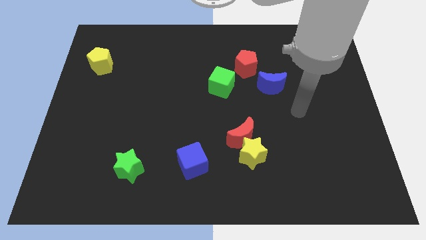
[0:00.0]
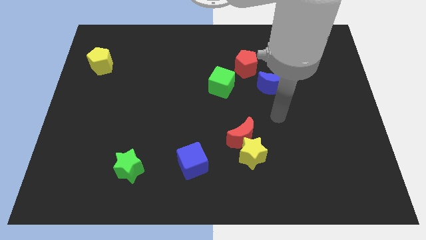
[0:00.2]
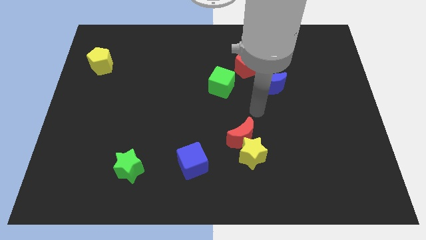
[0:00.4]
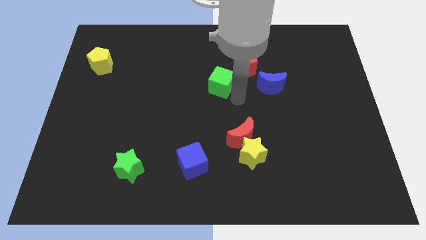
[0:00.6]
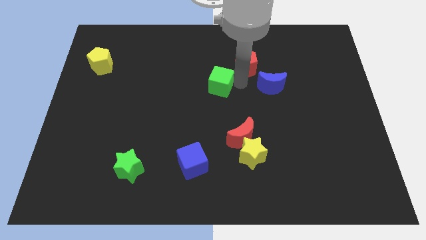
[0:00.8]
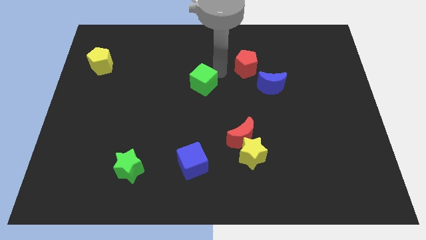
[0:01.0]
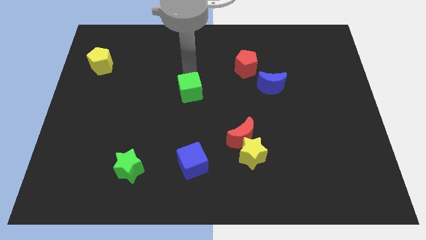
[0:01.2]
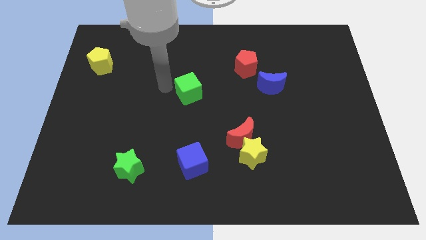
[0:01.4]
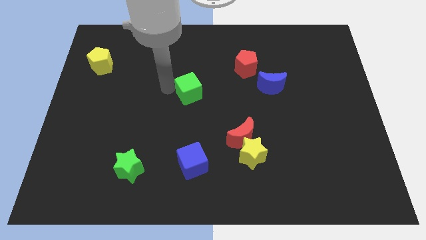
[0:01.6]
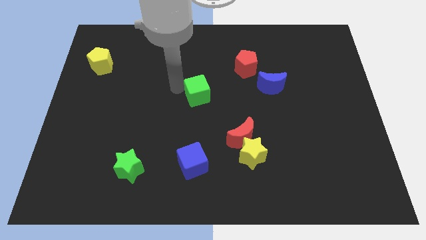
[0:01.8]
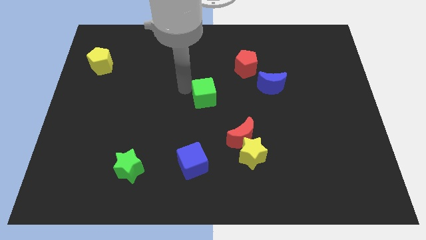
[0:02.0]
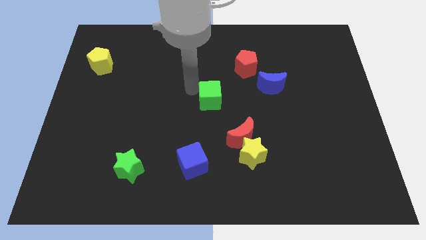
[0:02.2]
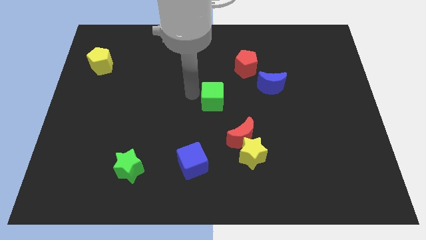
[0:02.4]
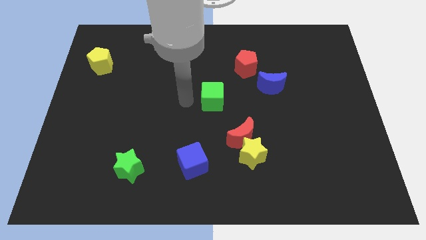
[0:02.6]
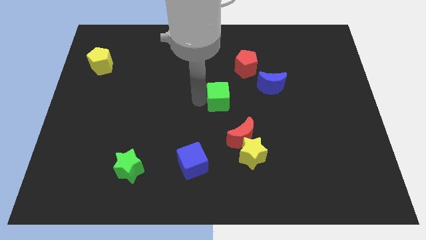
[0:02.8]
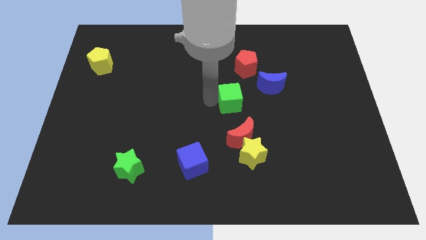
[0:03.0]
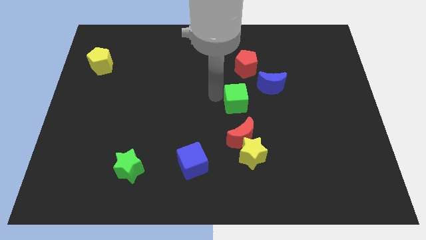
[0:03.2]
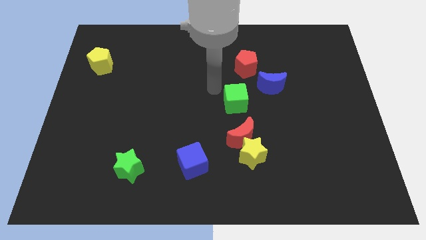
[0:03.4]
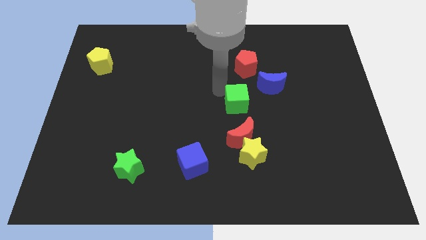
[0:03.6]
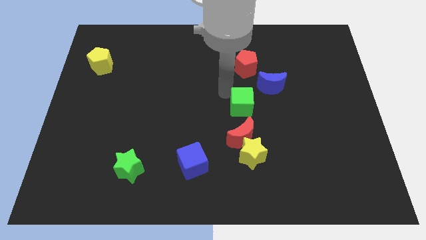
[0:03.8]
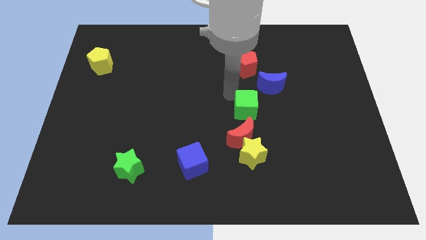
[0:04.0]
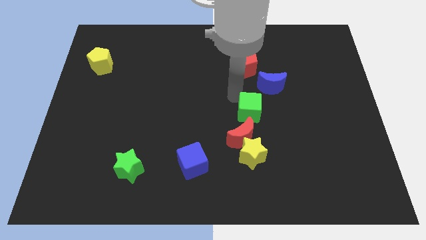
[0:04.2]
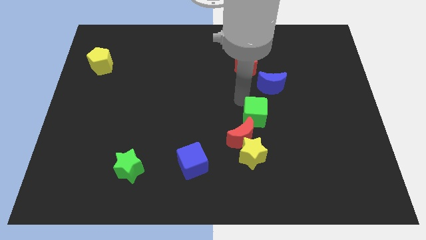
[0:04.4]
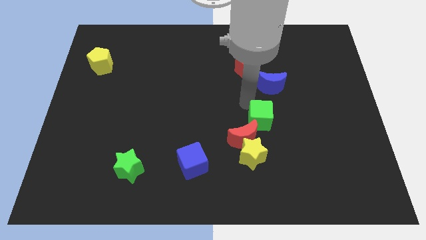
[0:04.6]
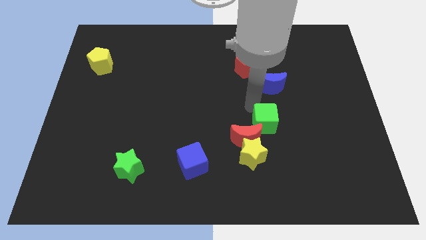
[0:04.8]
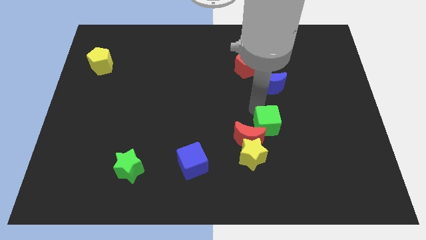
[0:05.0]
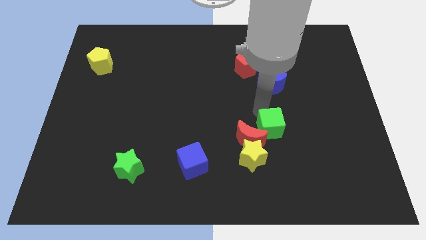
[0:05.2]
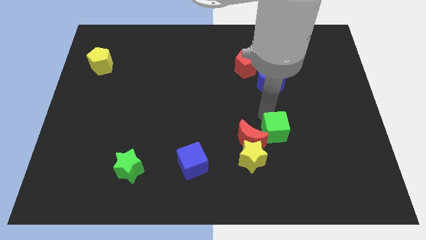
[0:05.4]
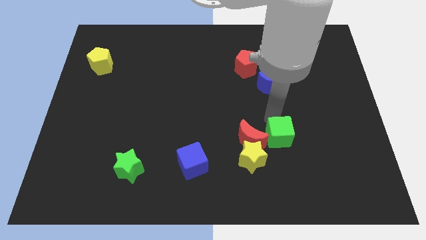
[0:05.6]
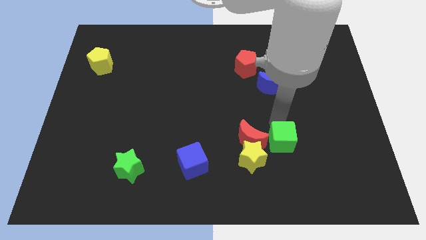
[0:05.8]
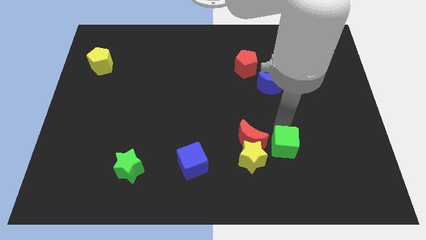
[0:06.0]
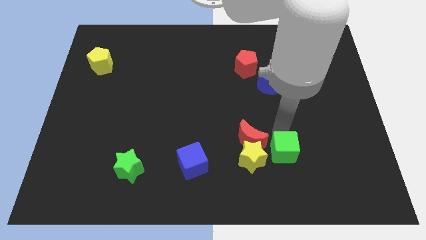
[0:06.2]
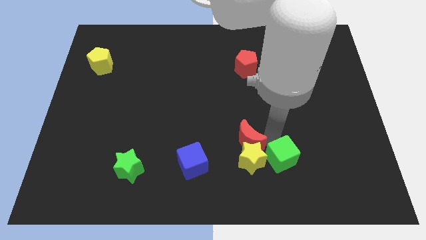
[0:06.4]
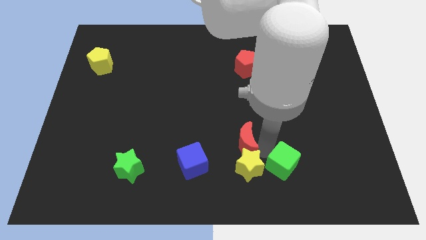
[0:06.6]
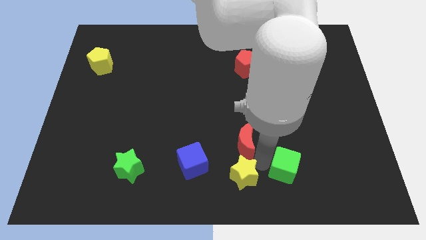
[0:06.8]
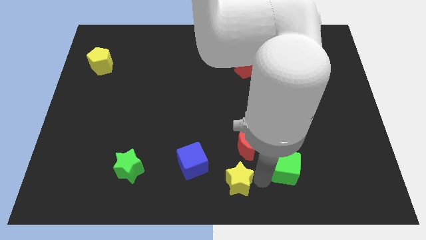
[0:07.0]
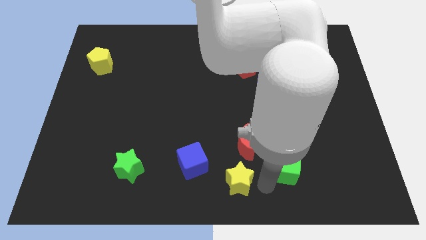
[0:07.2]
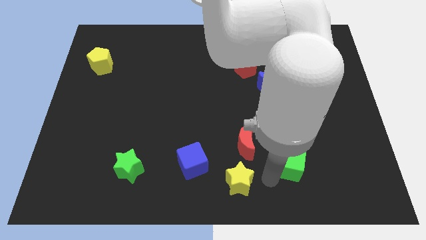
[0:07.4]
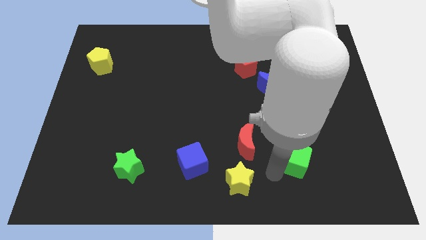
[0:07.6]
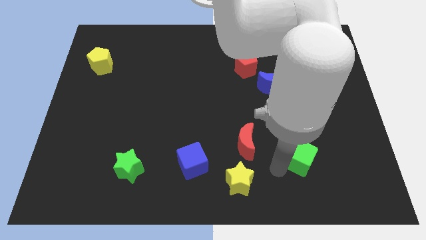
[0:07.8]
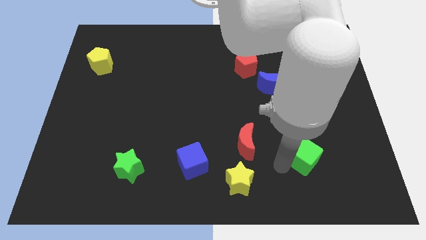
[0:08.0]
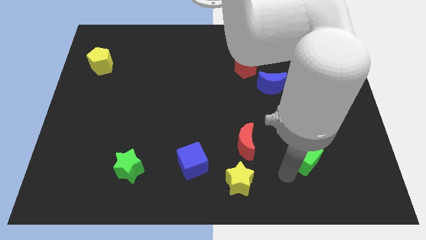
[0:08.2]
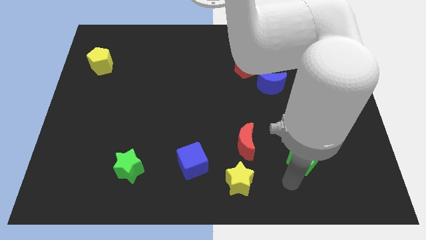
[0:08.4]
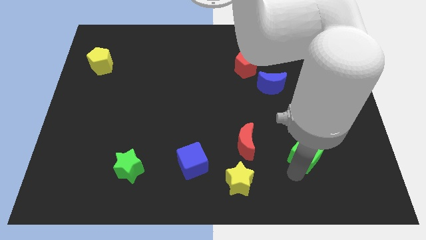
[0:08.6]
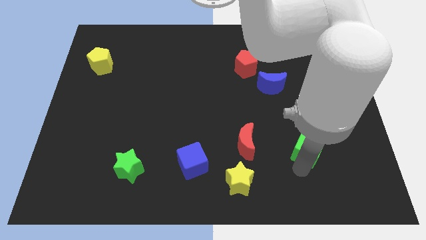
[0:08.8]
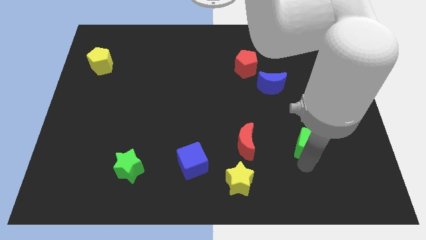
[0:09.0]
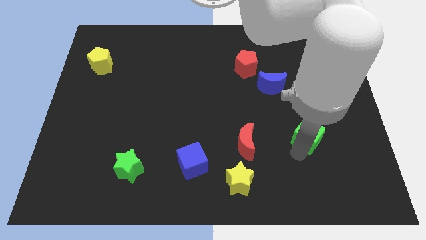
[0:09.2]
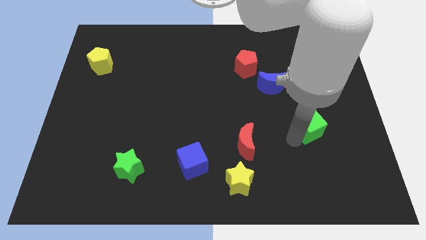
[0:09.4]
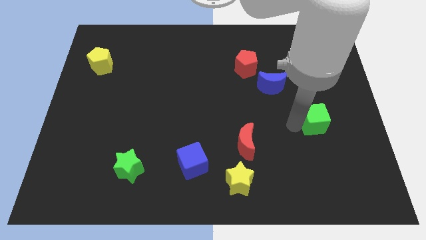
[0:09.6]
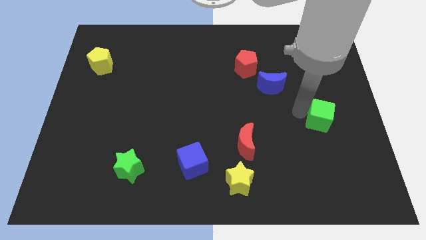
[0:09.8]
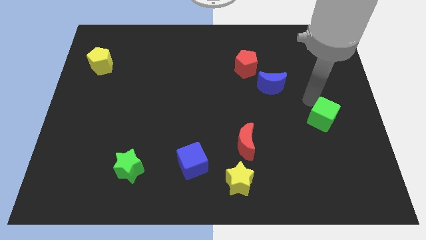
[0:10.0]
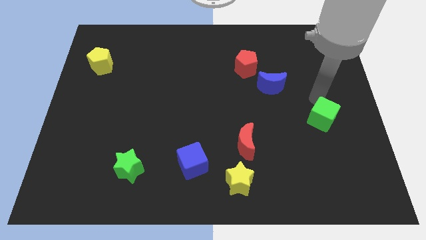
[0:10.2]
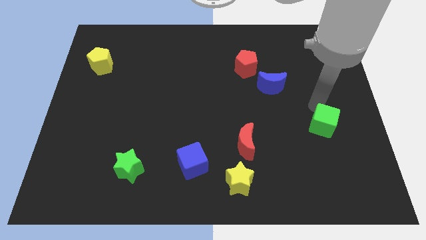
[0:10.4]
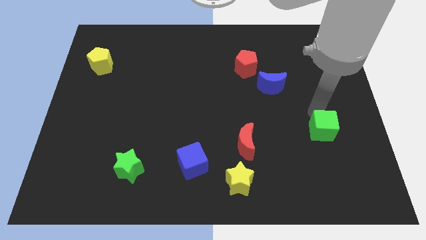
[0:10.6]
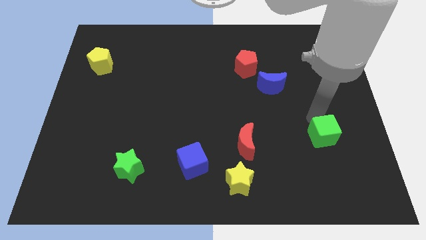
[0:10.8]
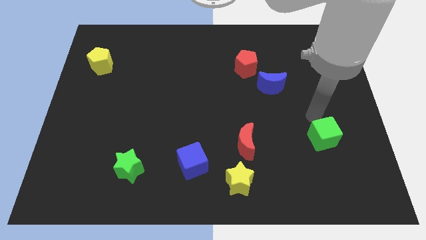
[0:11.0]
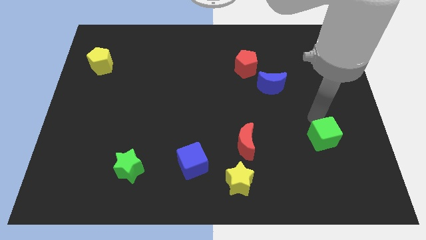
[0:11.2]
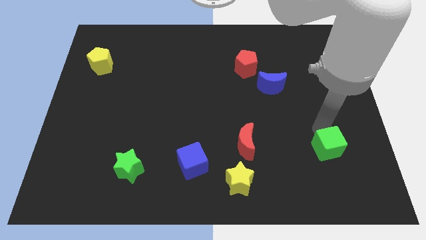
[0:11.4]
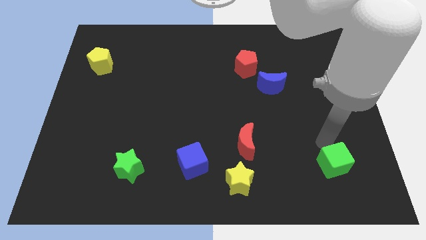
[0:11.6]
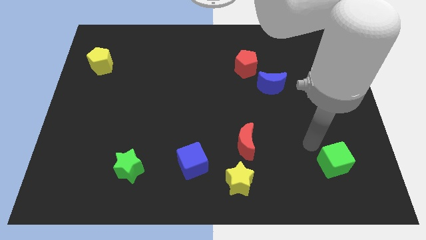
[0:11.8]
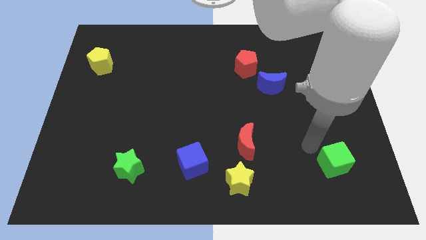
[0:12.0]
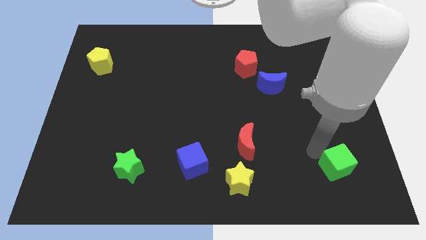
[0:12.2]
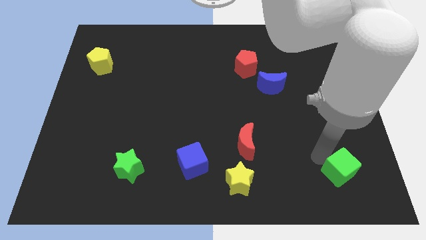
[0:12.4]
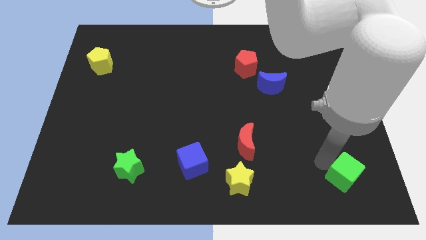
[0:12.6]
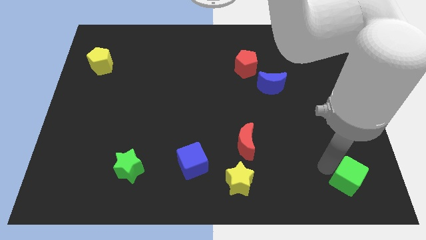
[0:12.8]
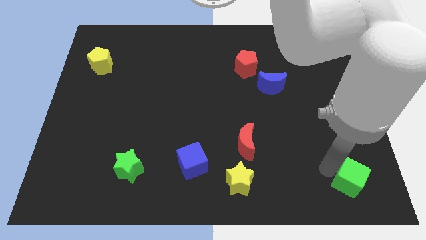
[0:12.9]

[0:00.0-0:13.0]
move the green cube to the bottom right

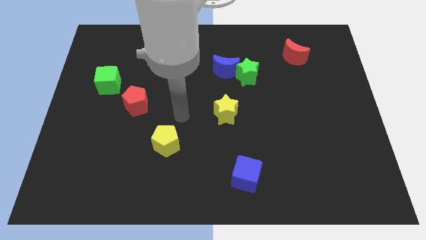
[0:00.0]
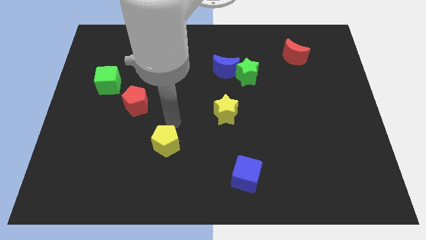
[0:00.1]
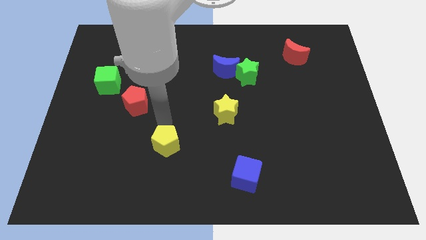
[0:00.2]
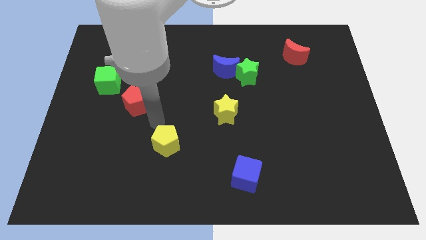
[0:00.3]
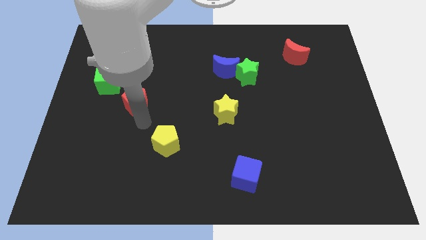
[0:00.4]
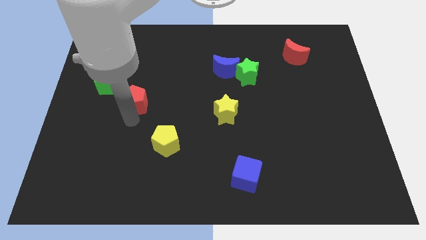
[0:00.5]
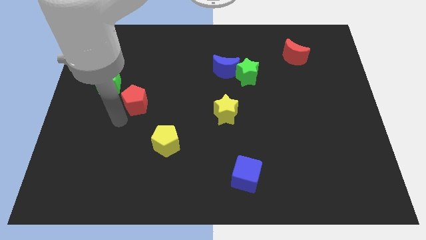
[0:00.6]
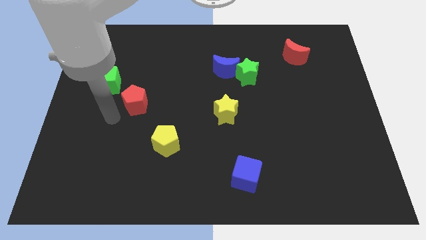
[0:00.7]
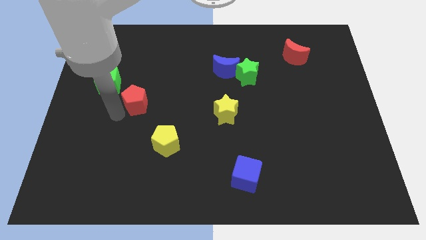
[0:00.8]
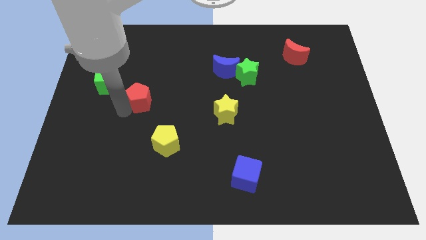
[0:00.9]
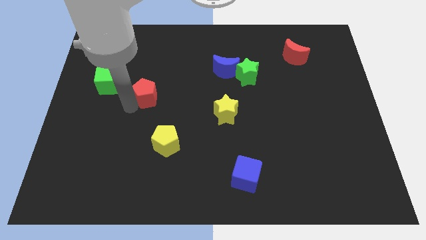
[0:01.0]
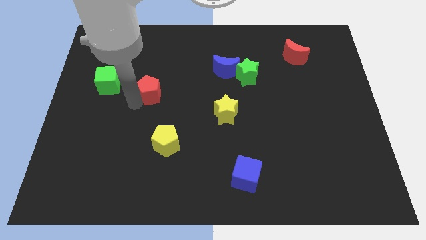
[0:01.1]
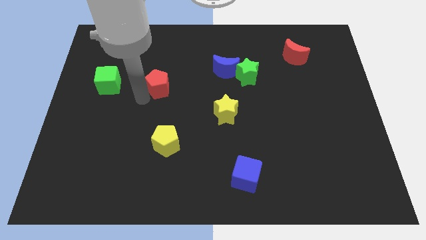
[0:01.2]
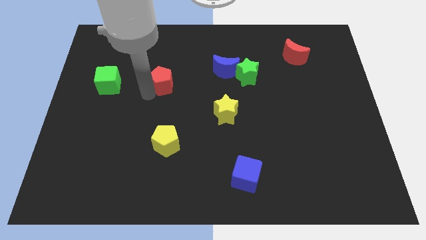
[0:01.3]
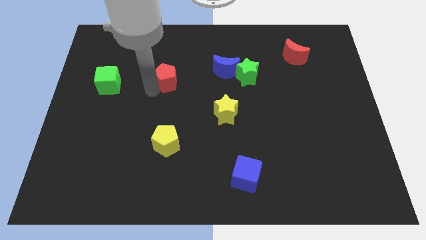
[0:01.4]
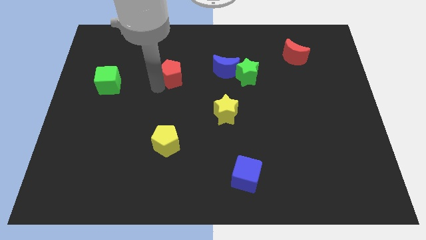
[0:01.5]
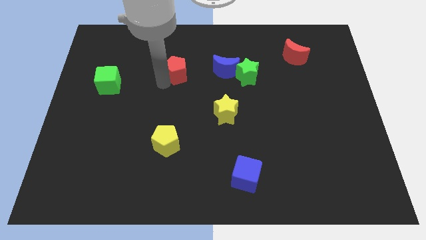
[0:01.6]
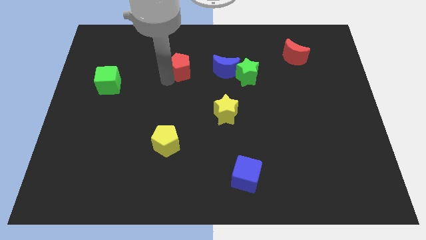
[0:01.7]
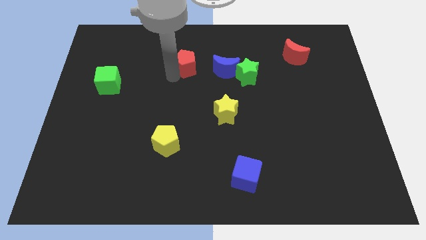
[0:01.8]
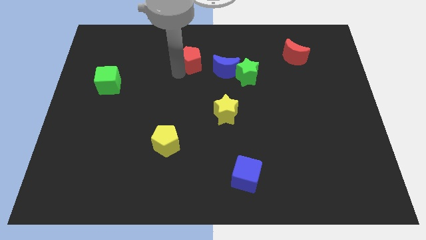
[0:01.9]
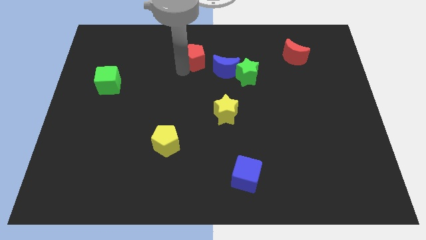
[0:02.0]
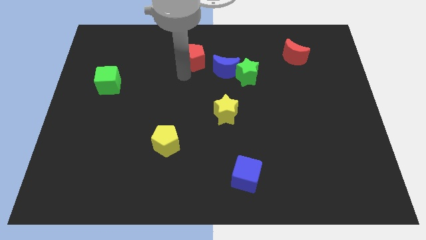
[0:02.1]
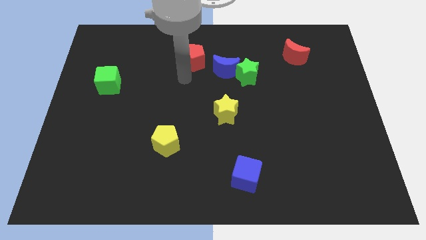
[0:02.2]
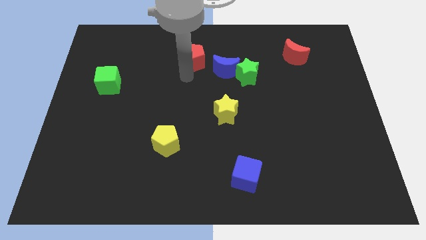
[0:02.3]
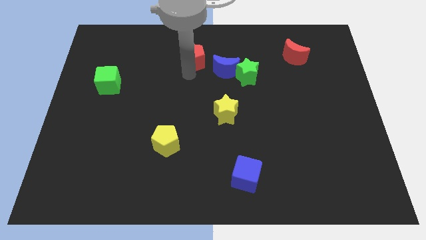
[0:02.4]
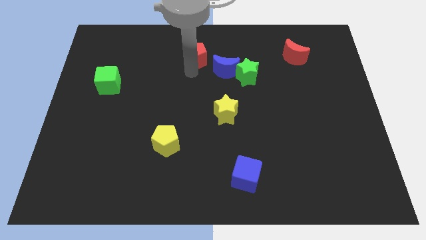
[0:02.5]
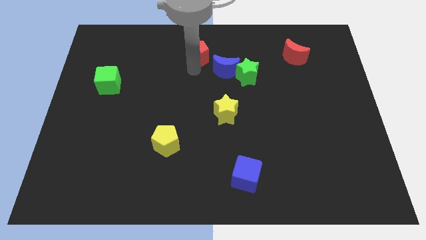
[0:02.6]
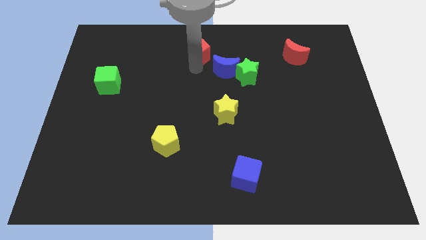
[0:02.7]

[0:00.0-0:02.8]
move the red pentagon to the top side
